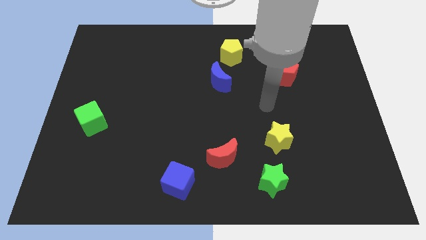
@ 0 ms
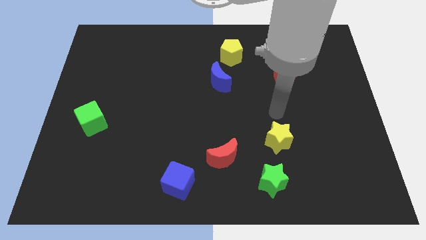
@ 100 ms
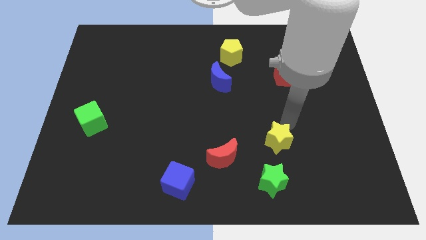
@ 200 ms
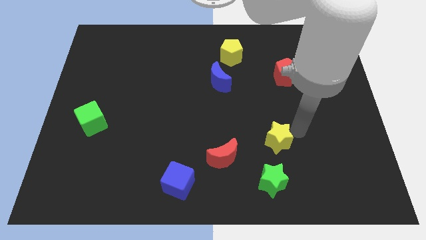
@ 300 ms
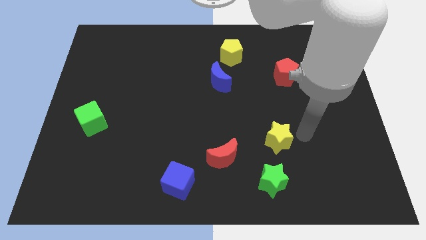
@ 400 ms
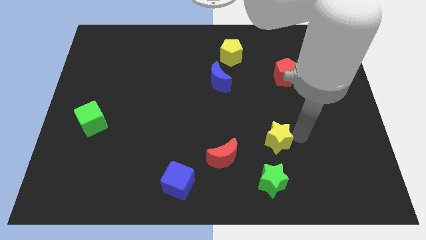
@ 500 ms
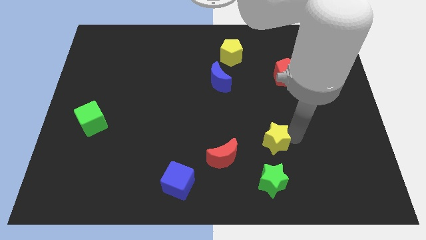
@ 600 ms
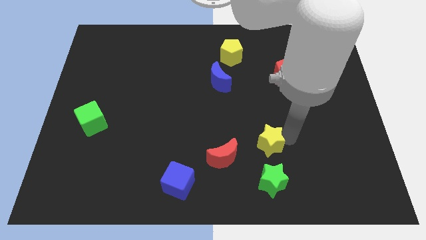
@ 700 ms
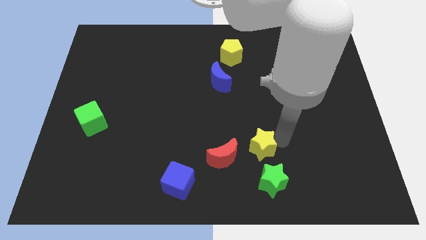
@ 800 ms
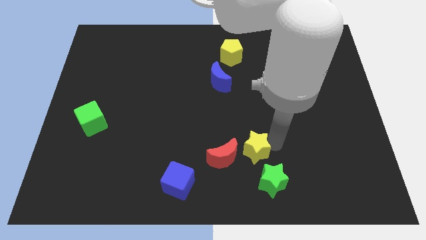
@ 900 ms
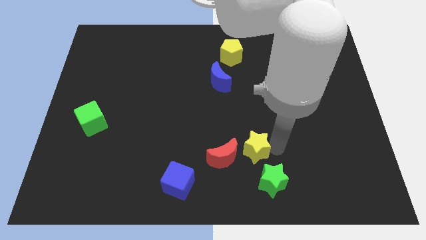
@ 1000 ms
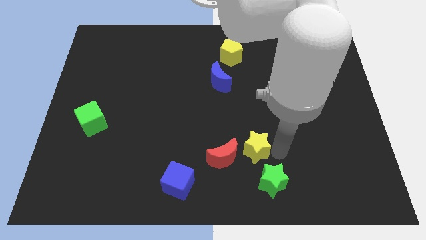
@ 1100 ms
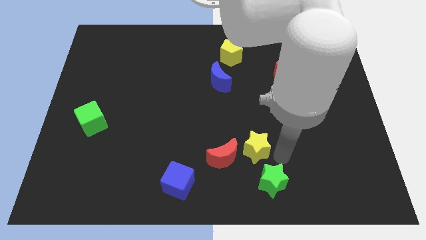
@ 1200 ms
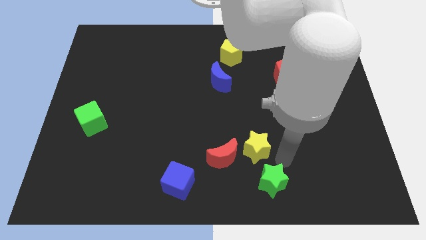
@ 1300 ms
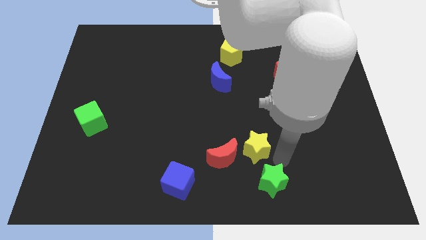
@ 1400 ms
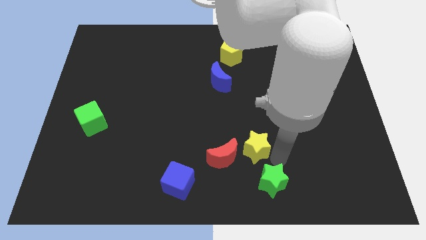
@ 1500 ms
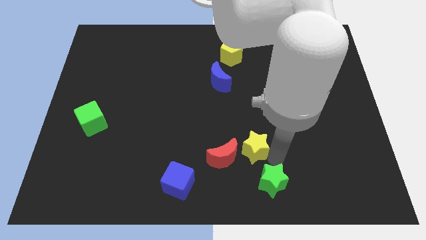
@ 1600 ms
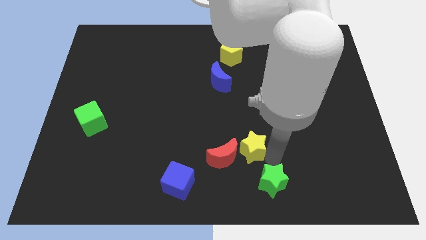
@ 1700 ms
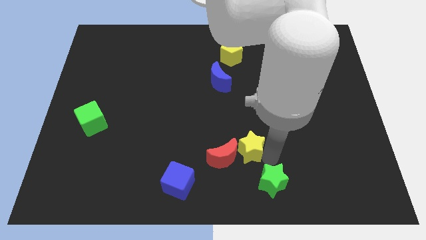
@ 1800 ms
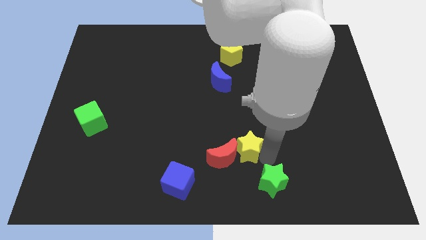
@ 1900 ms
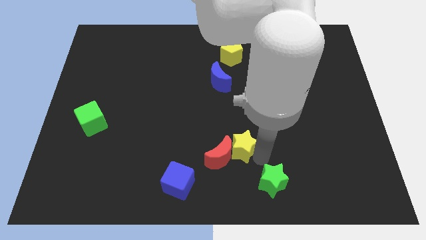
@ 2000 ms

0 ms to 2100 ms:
slightly move the yellow star left

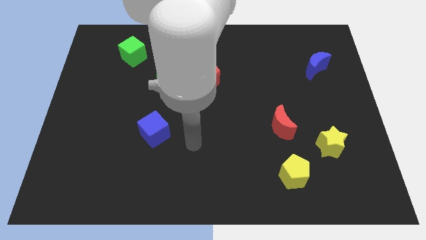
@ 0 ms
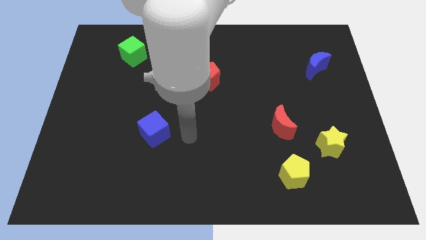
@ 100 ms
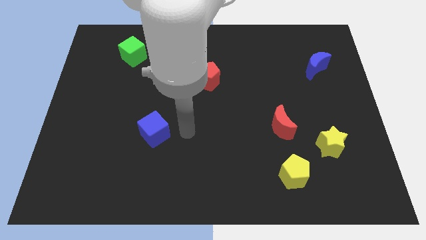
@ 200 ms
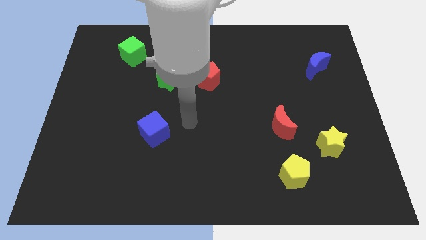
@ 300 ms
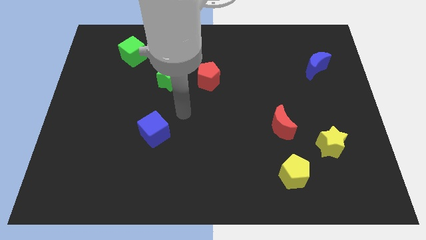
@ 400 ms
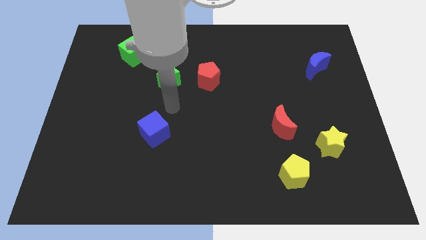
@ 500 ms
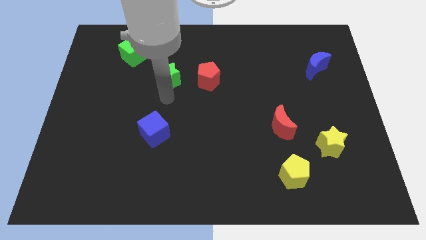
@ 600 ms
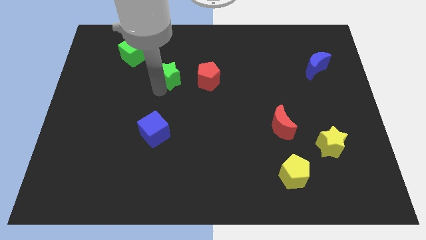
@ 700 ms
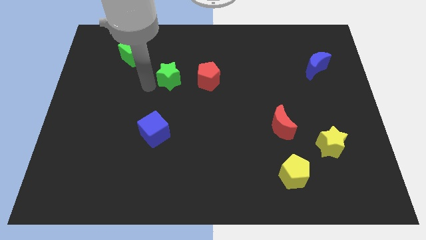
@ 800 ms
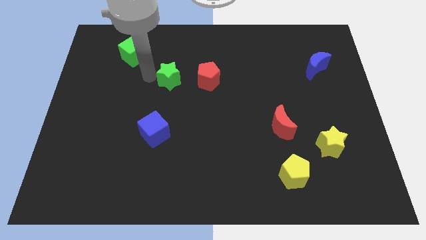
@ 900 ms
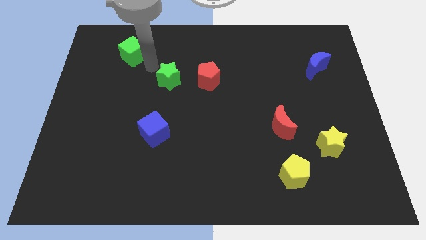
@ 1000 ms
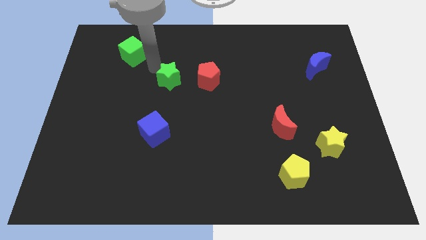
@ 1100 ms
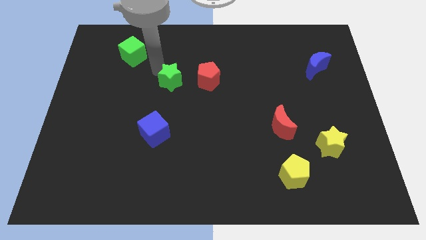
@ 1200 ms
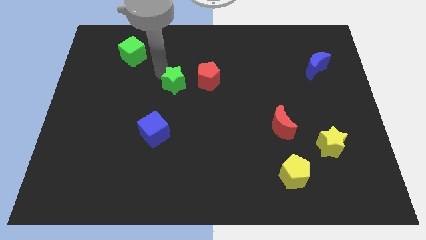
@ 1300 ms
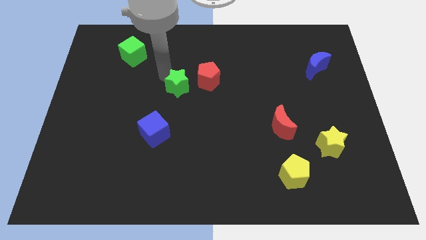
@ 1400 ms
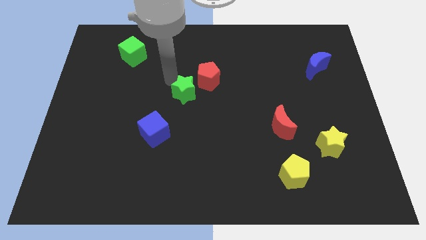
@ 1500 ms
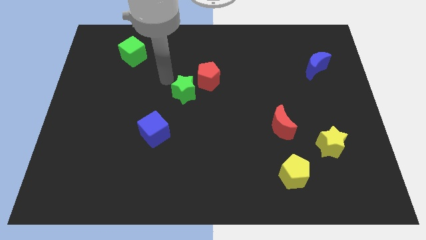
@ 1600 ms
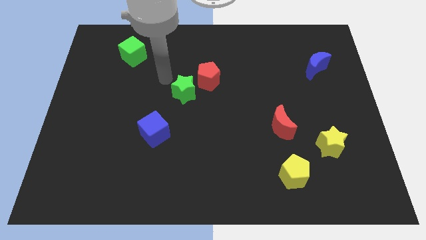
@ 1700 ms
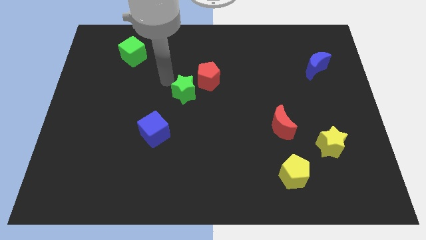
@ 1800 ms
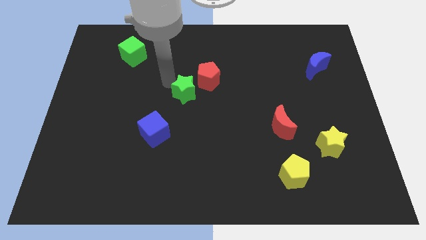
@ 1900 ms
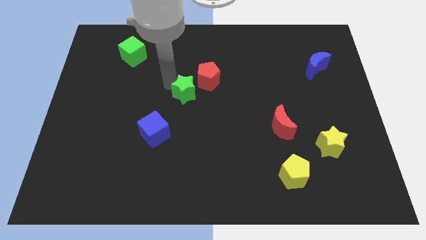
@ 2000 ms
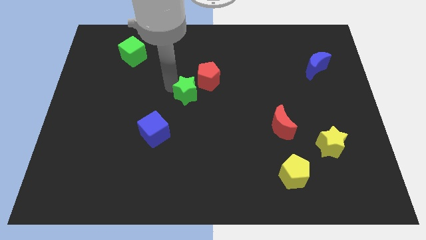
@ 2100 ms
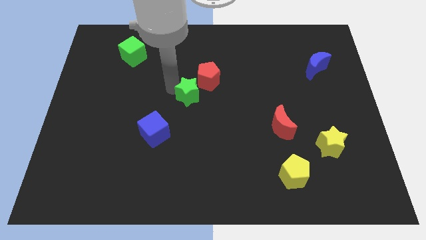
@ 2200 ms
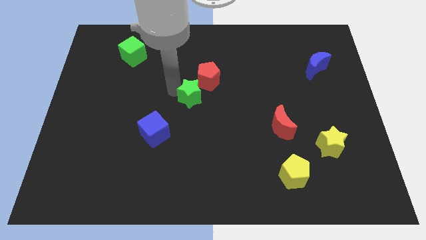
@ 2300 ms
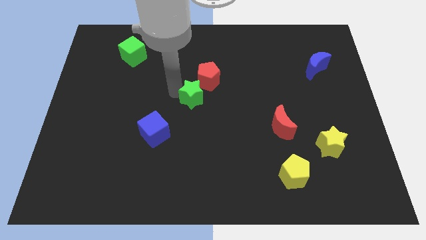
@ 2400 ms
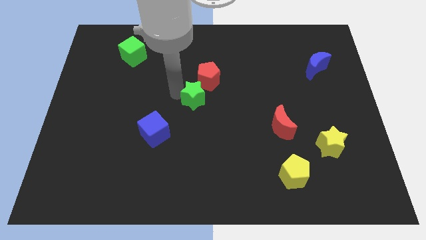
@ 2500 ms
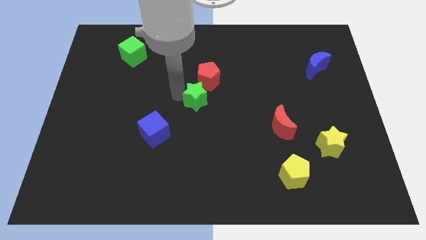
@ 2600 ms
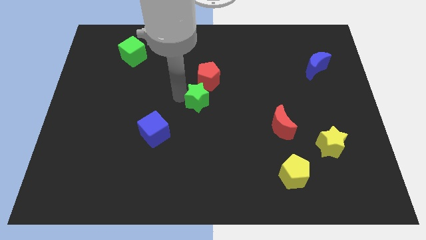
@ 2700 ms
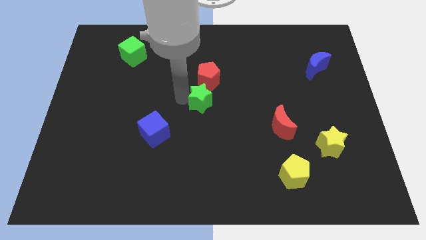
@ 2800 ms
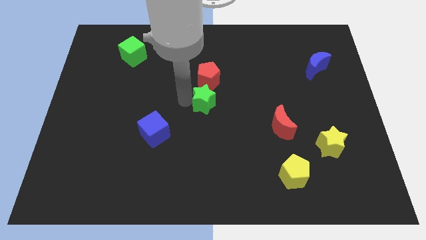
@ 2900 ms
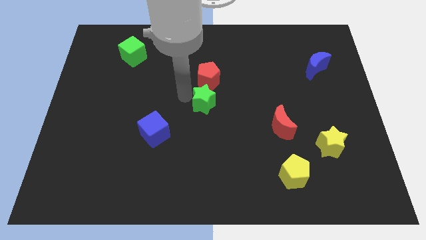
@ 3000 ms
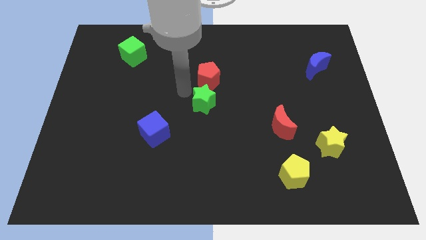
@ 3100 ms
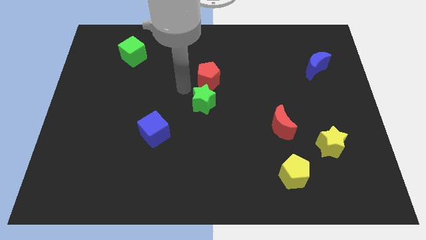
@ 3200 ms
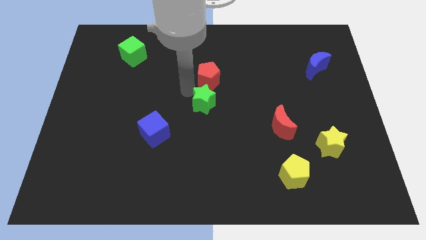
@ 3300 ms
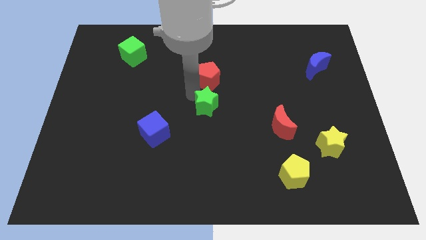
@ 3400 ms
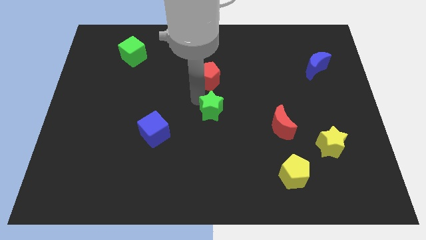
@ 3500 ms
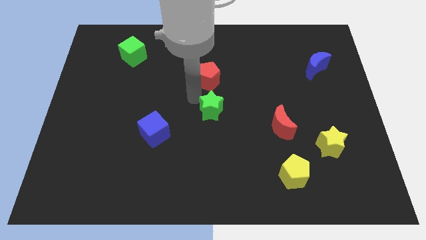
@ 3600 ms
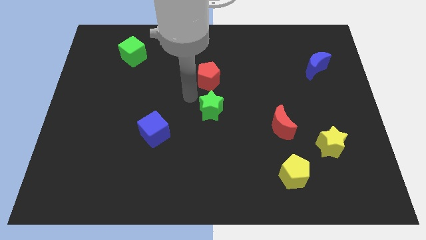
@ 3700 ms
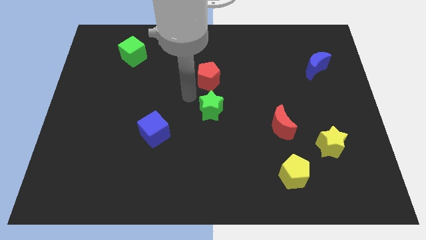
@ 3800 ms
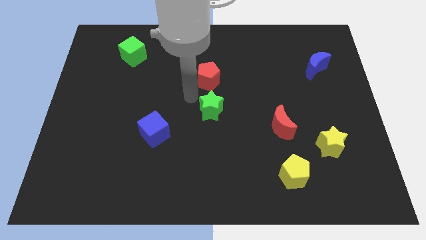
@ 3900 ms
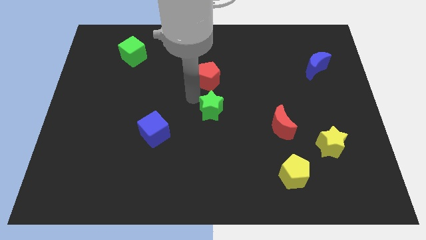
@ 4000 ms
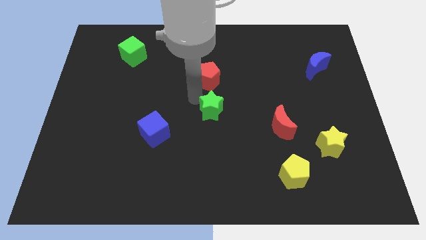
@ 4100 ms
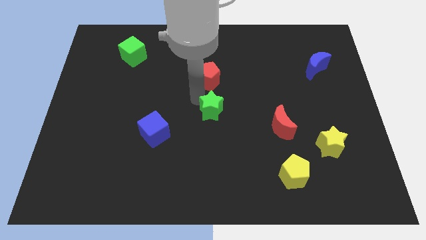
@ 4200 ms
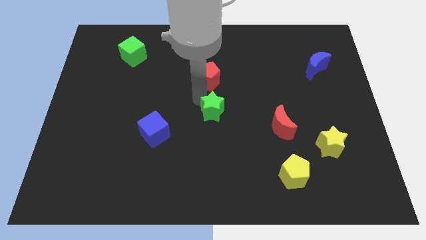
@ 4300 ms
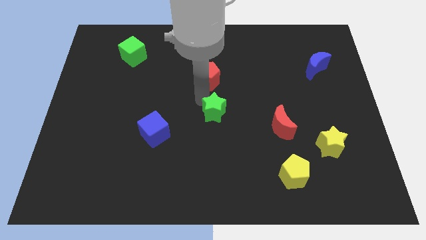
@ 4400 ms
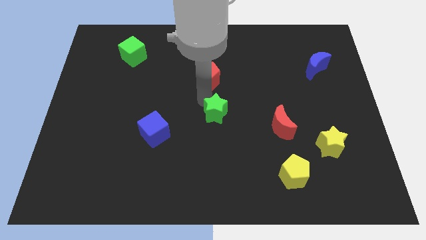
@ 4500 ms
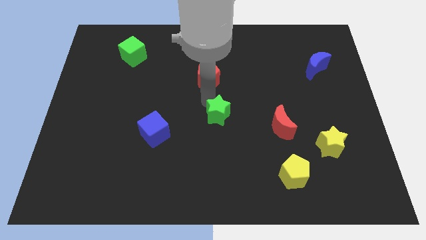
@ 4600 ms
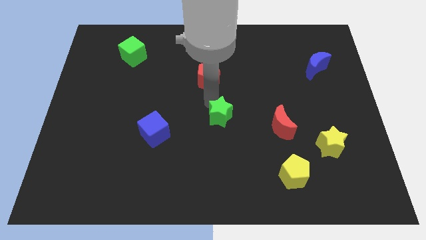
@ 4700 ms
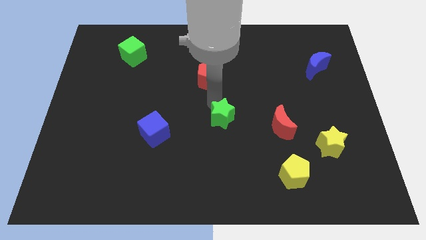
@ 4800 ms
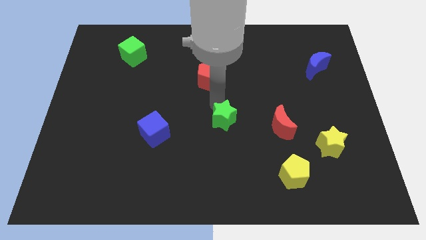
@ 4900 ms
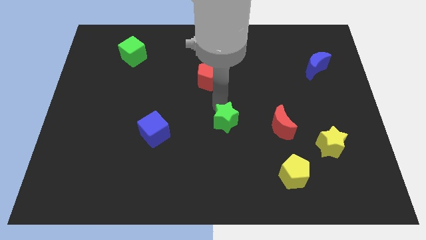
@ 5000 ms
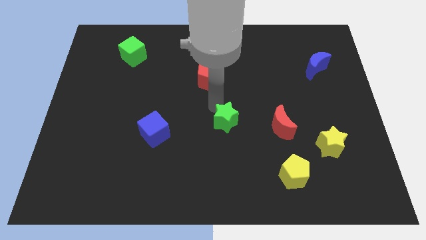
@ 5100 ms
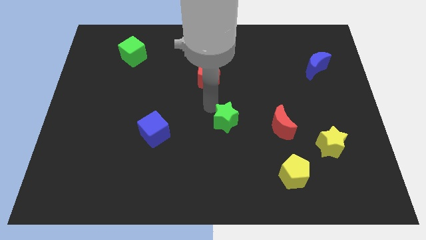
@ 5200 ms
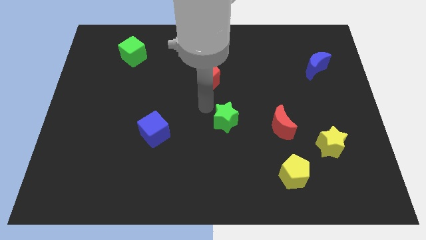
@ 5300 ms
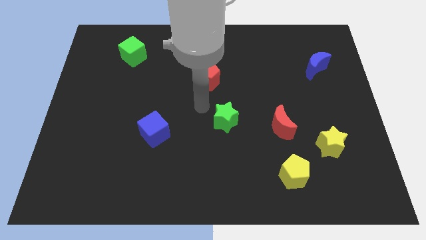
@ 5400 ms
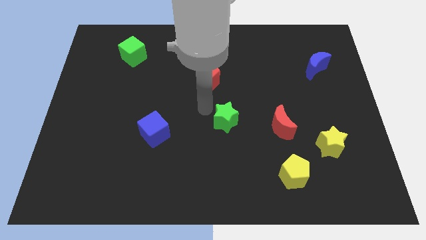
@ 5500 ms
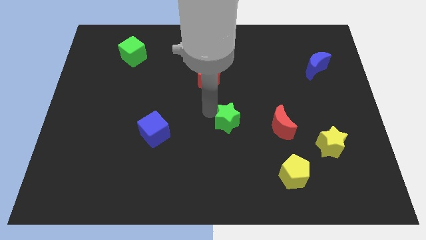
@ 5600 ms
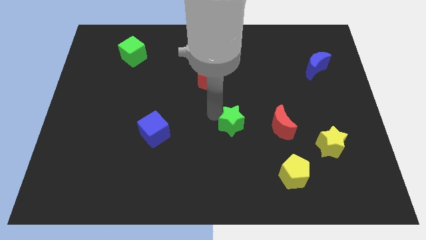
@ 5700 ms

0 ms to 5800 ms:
push the green star diagonally downwards and to the right
